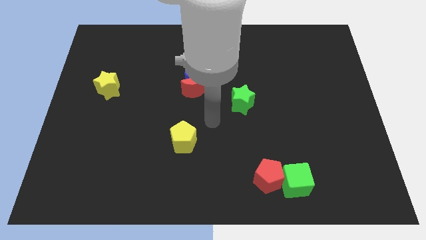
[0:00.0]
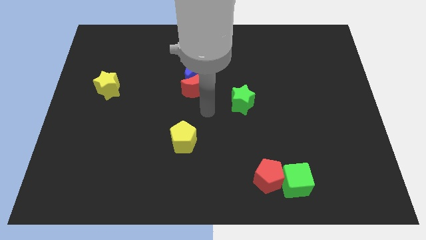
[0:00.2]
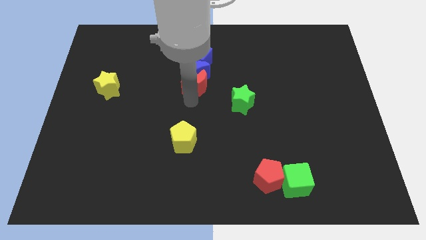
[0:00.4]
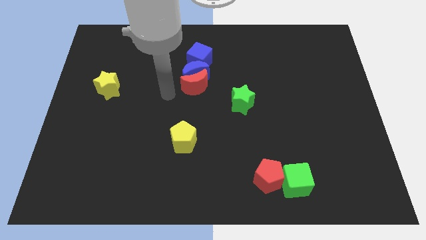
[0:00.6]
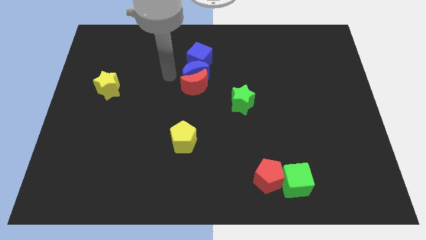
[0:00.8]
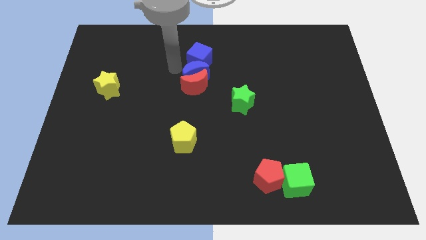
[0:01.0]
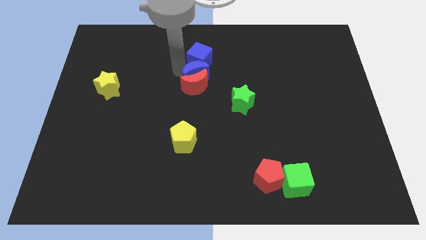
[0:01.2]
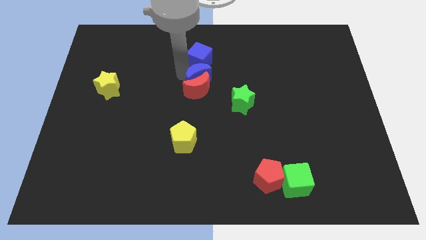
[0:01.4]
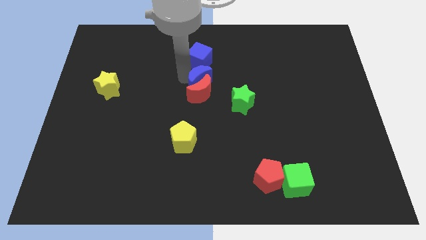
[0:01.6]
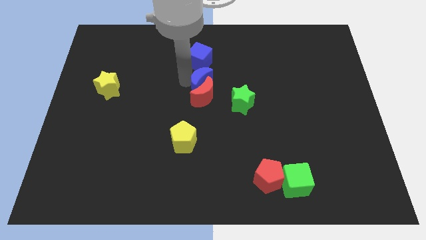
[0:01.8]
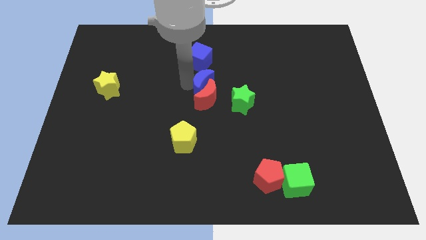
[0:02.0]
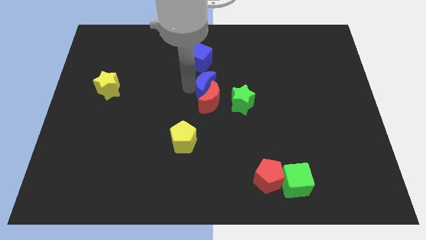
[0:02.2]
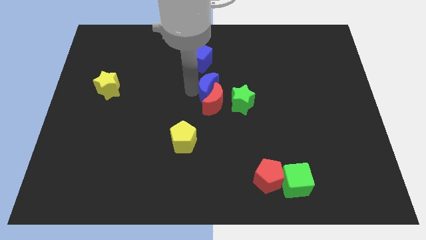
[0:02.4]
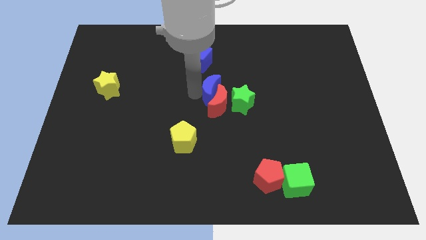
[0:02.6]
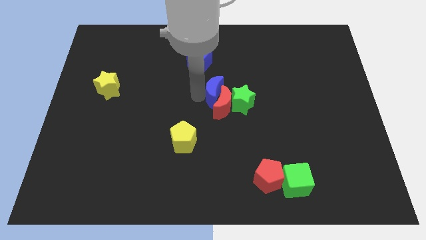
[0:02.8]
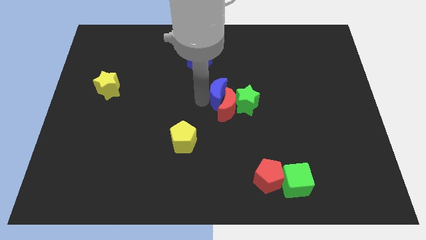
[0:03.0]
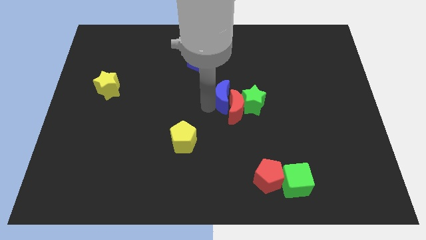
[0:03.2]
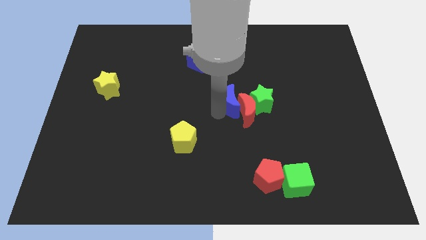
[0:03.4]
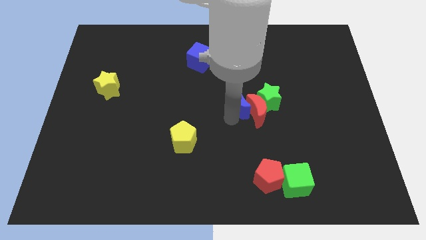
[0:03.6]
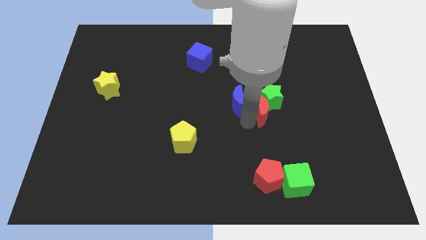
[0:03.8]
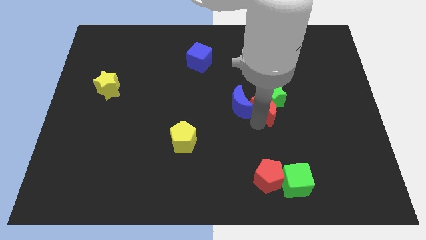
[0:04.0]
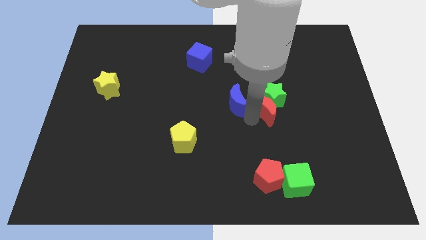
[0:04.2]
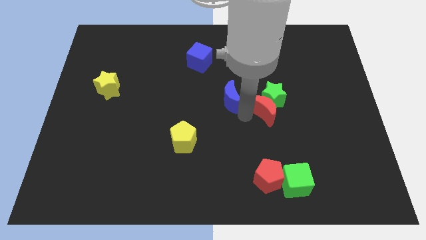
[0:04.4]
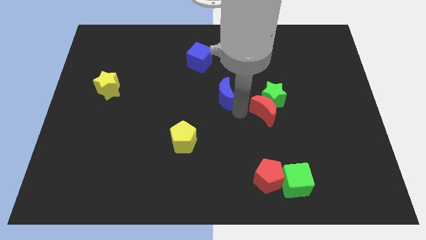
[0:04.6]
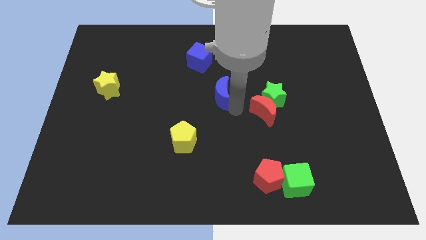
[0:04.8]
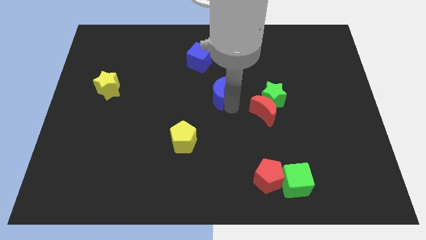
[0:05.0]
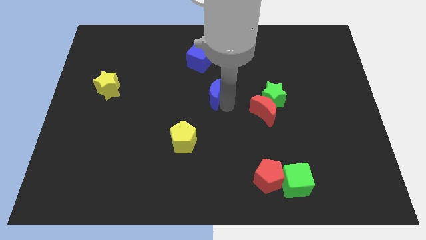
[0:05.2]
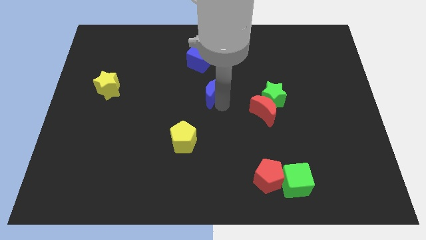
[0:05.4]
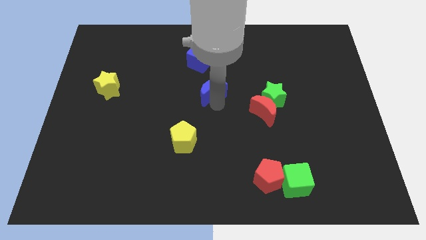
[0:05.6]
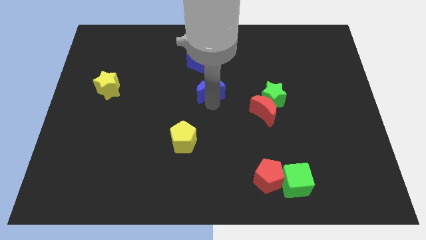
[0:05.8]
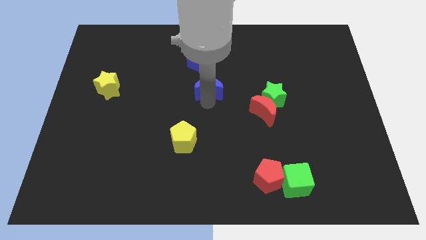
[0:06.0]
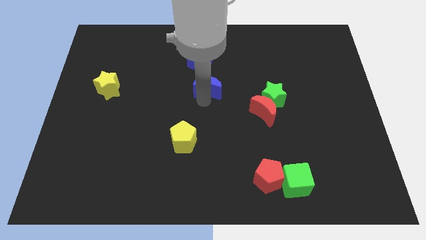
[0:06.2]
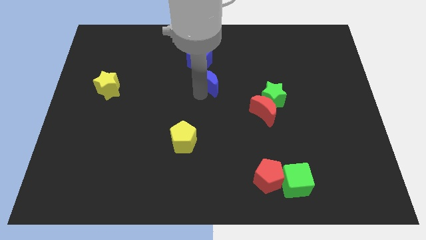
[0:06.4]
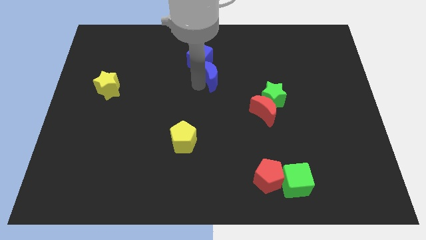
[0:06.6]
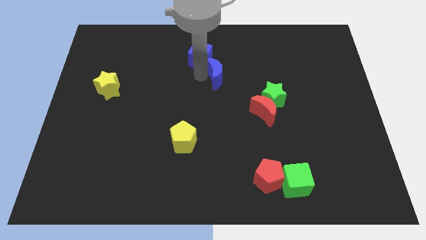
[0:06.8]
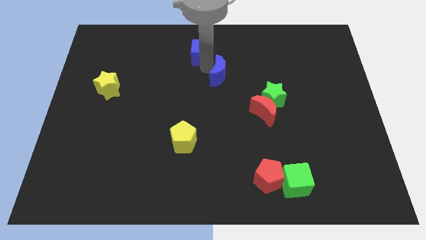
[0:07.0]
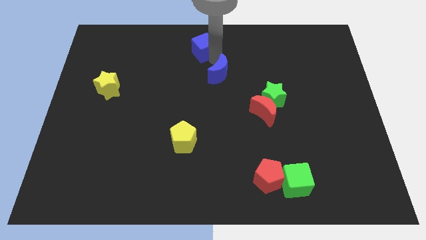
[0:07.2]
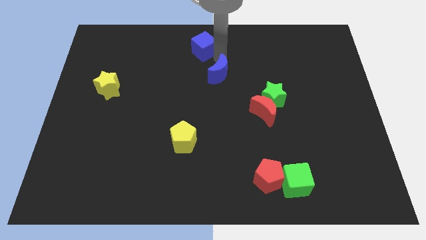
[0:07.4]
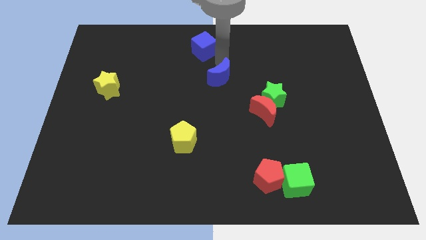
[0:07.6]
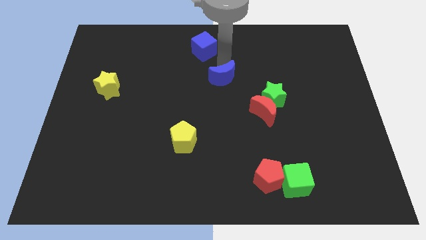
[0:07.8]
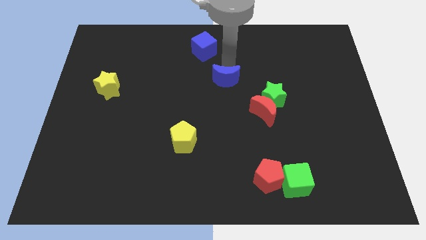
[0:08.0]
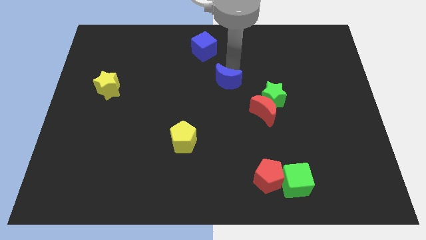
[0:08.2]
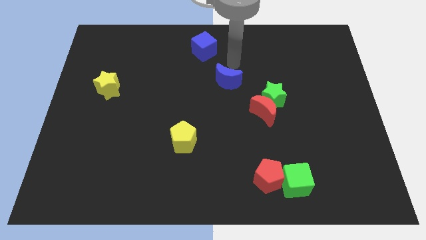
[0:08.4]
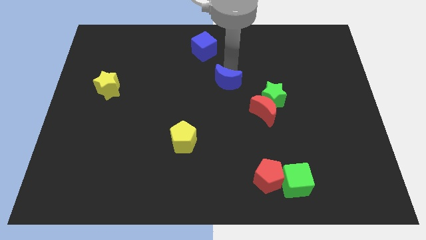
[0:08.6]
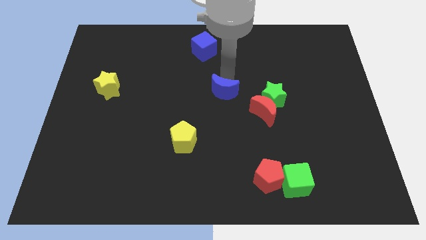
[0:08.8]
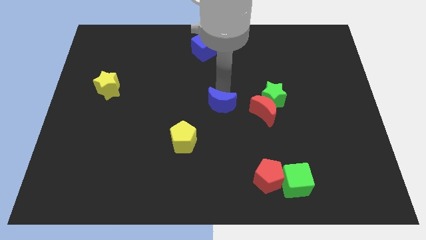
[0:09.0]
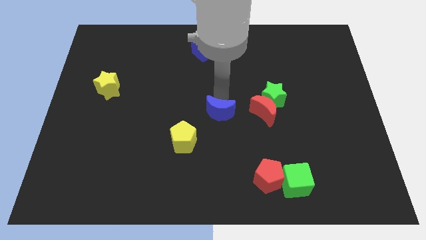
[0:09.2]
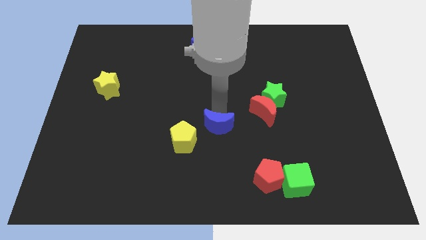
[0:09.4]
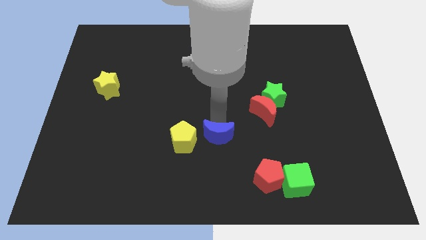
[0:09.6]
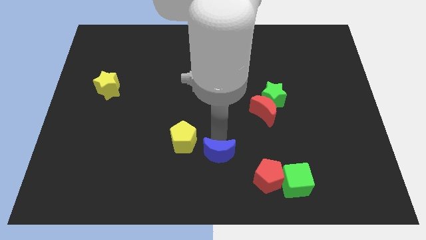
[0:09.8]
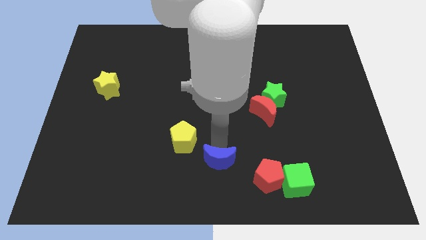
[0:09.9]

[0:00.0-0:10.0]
move the blue moon to the left of the red pentagon

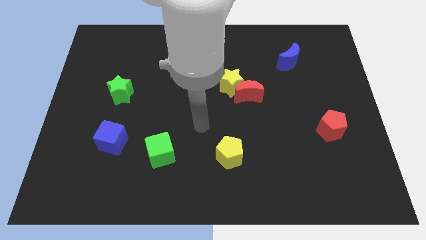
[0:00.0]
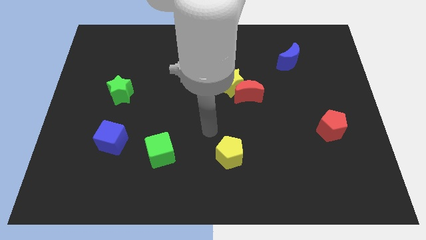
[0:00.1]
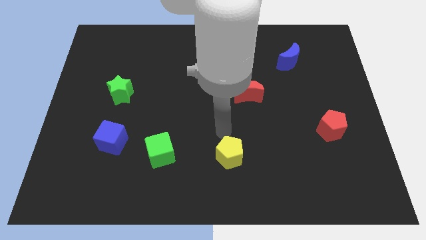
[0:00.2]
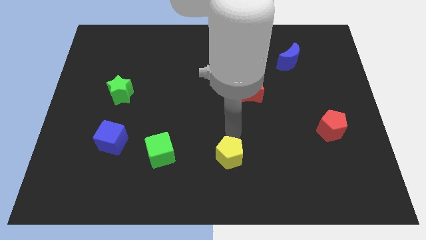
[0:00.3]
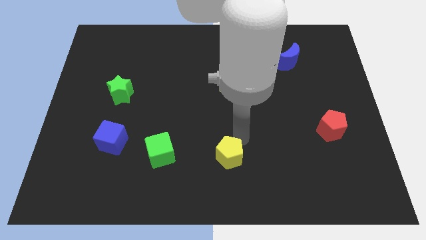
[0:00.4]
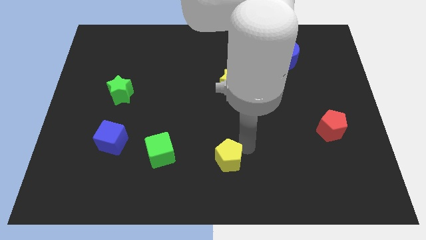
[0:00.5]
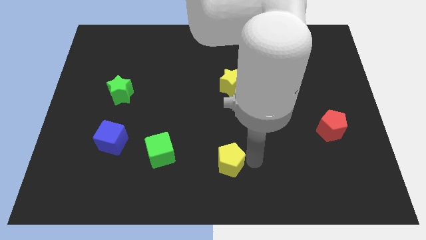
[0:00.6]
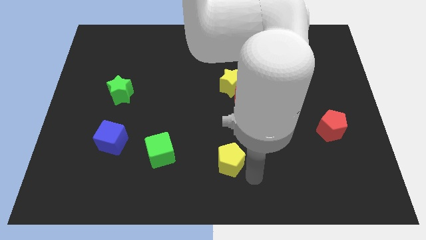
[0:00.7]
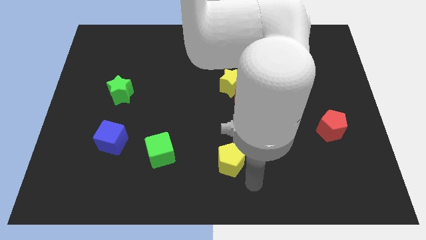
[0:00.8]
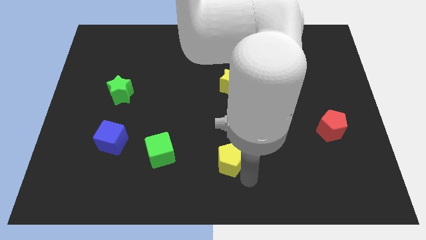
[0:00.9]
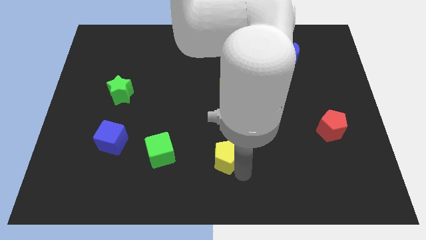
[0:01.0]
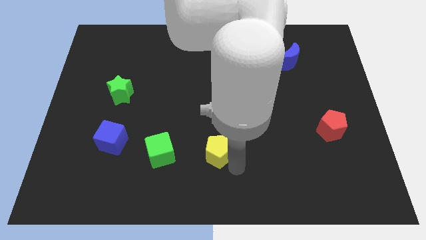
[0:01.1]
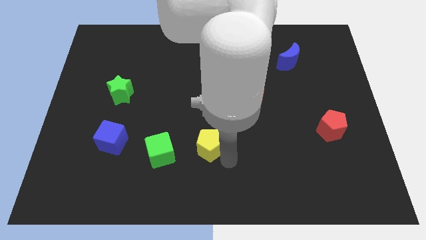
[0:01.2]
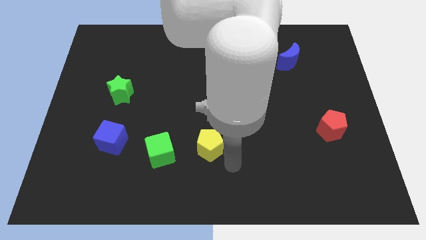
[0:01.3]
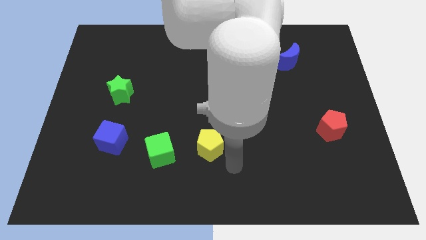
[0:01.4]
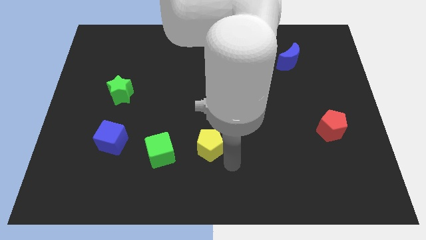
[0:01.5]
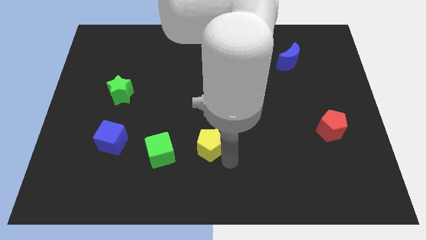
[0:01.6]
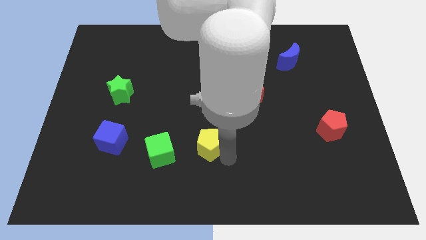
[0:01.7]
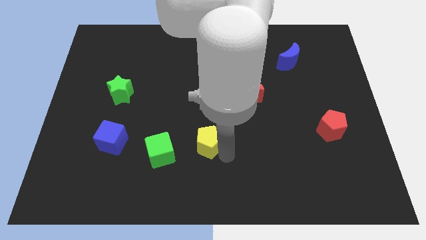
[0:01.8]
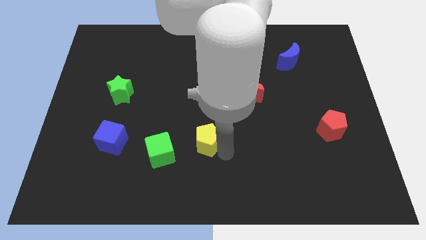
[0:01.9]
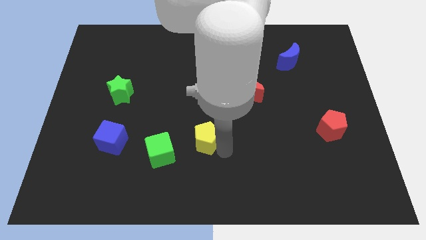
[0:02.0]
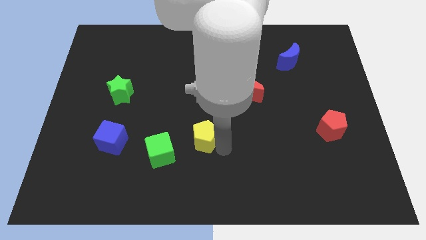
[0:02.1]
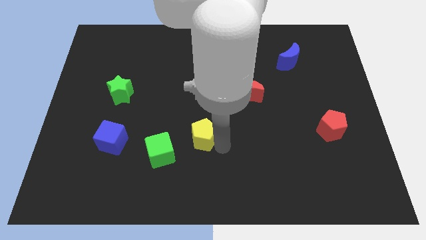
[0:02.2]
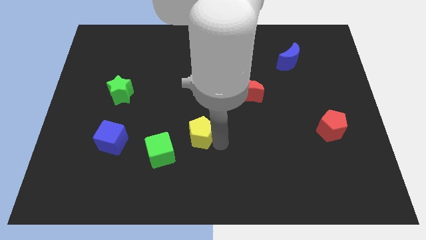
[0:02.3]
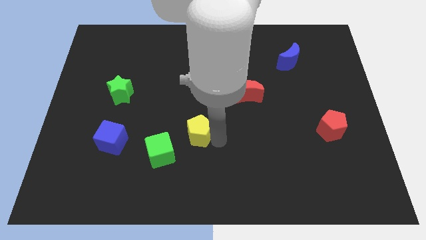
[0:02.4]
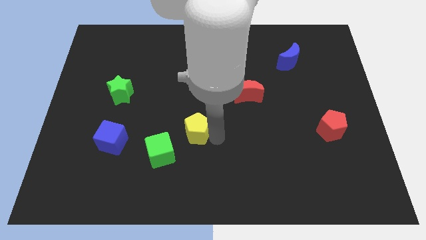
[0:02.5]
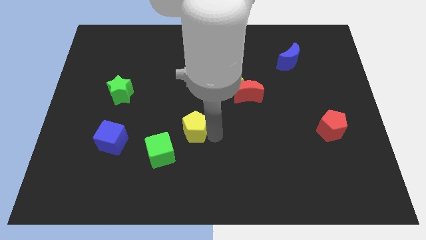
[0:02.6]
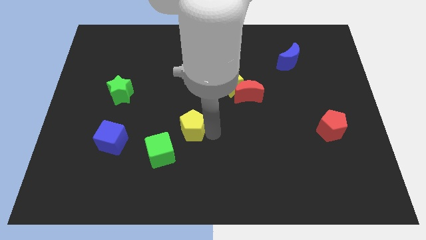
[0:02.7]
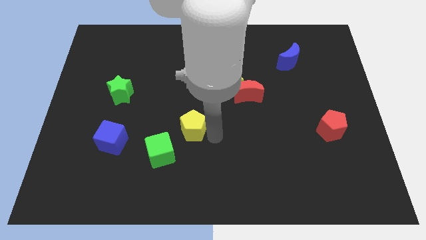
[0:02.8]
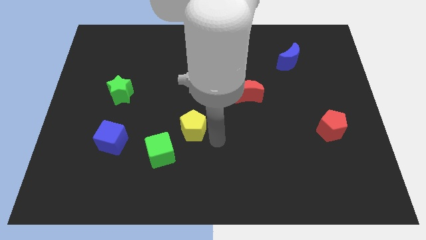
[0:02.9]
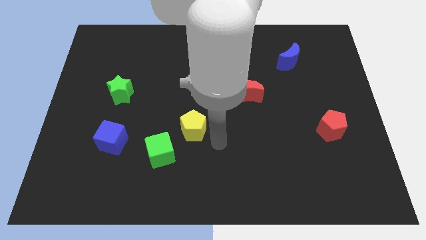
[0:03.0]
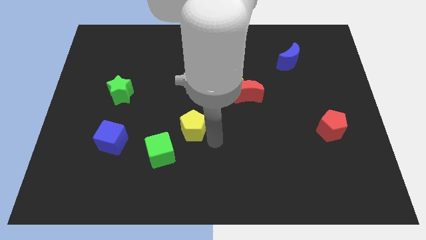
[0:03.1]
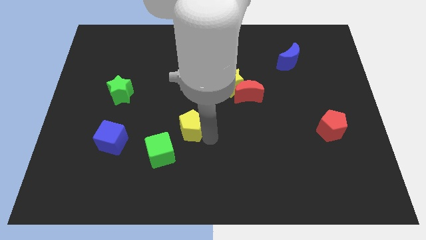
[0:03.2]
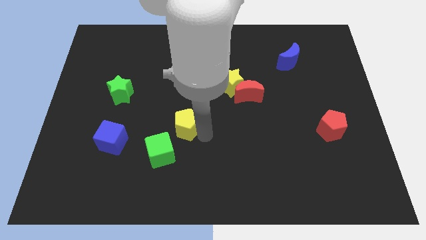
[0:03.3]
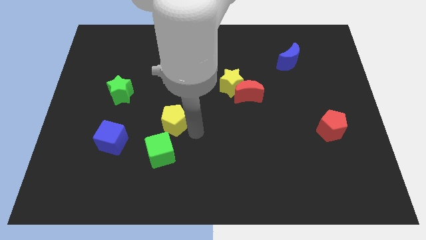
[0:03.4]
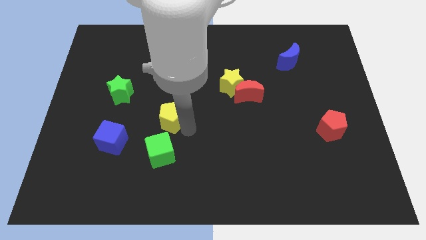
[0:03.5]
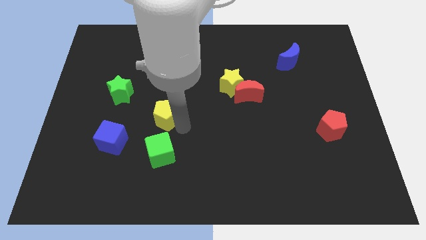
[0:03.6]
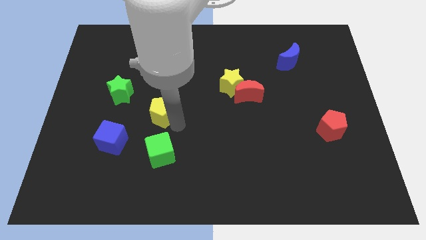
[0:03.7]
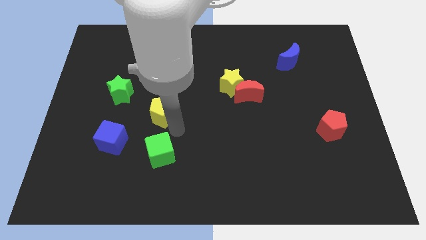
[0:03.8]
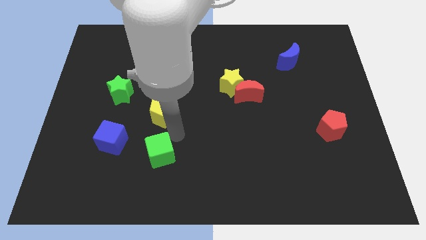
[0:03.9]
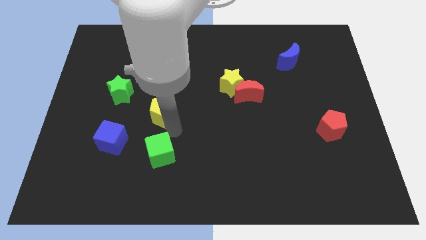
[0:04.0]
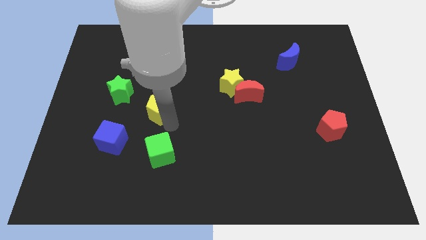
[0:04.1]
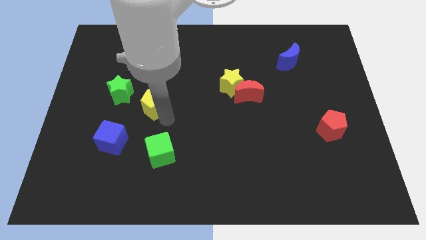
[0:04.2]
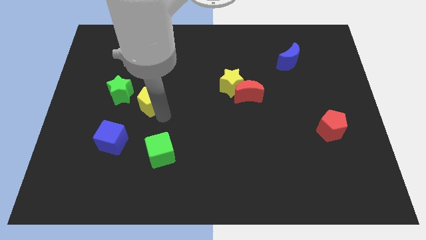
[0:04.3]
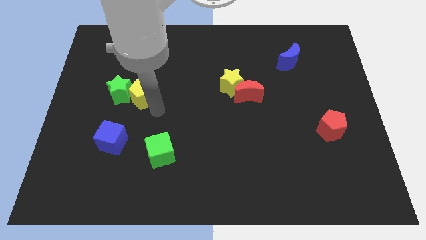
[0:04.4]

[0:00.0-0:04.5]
slide the yellow pentagon diagonally up and to the right of the green star
